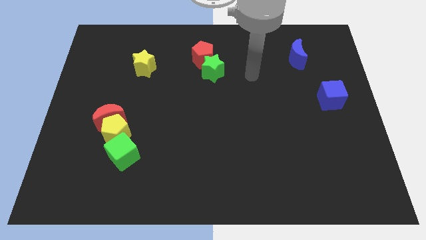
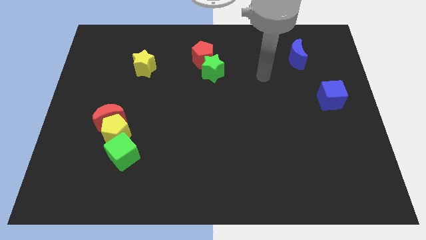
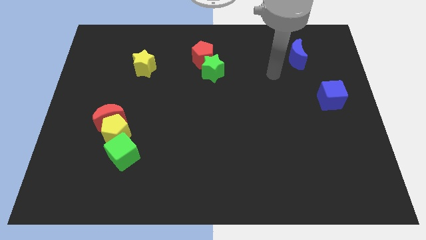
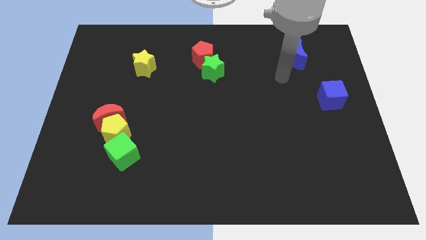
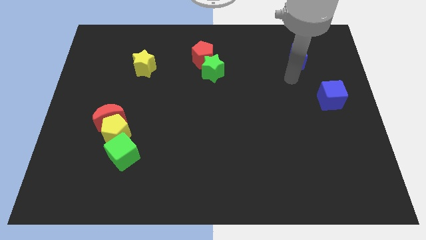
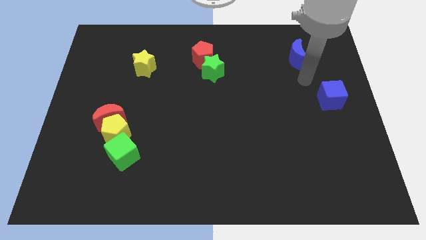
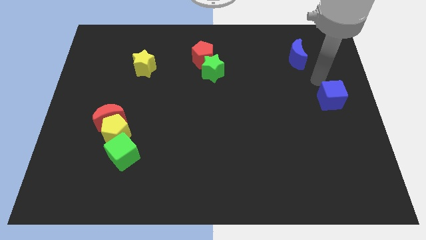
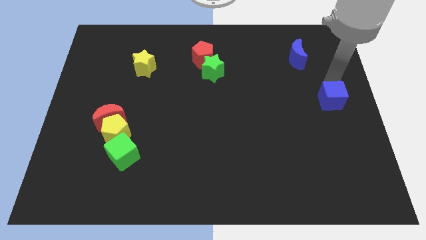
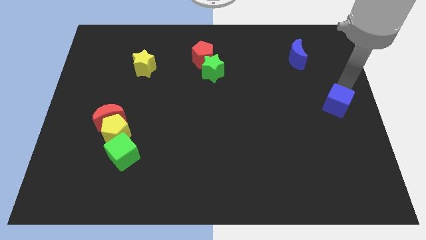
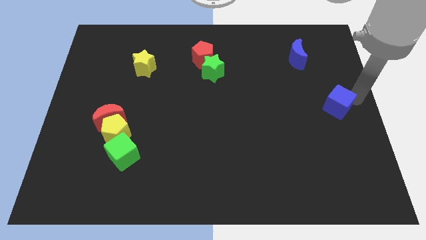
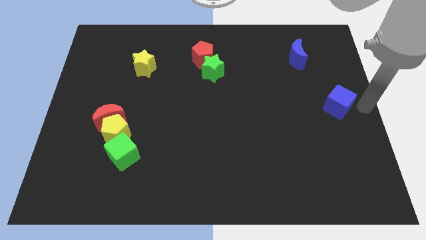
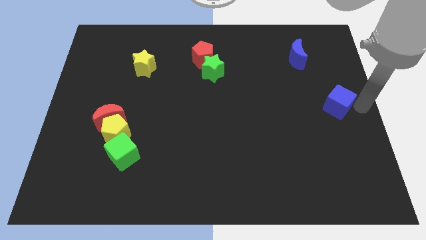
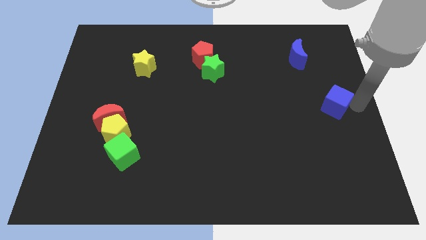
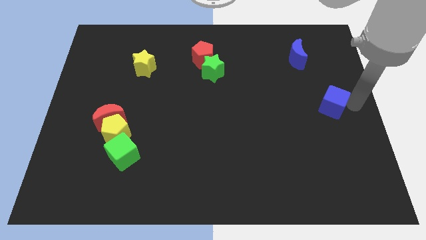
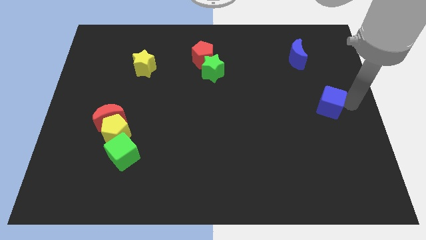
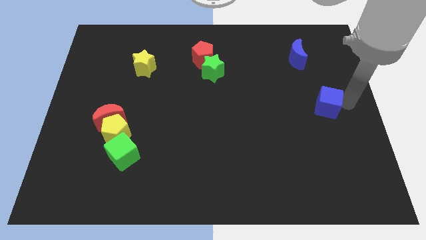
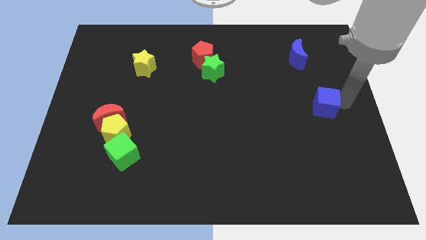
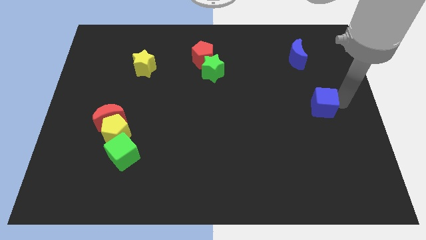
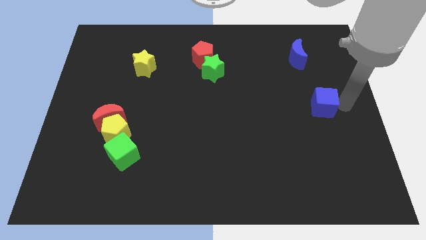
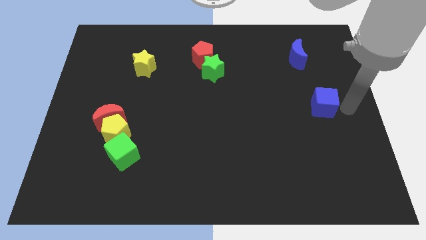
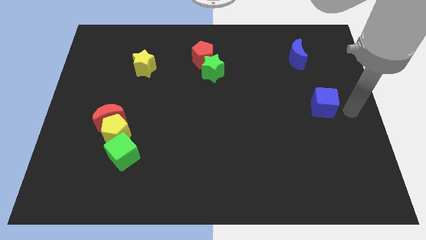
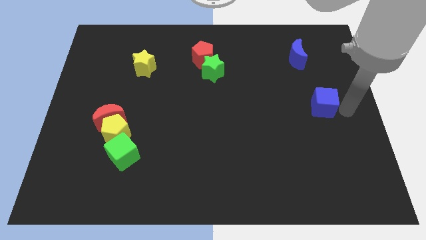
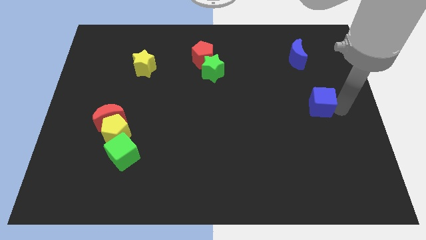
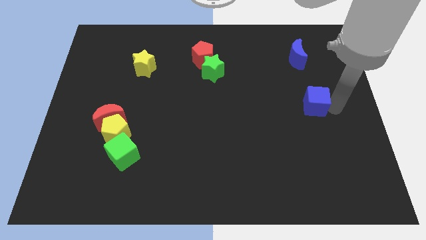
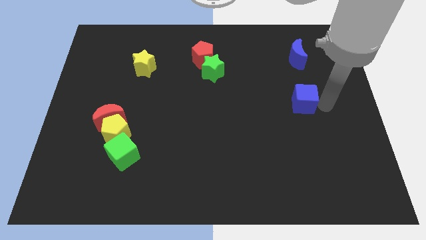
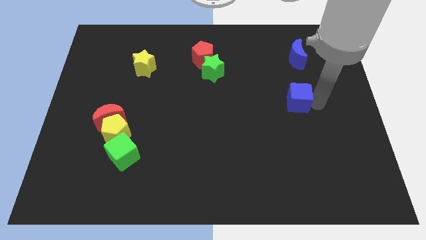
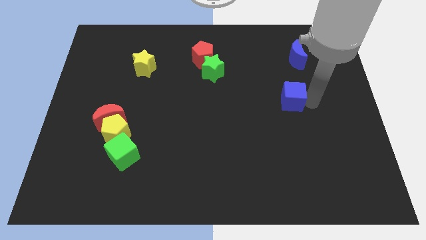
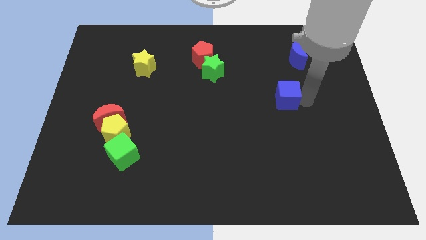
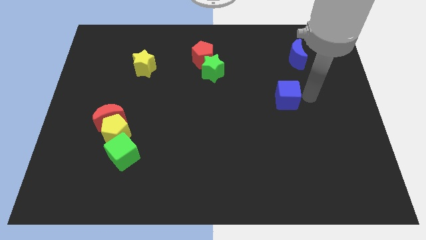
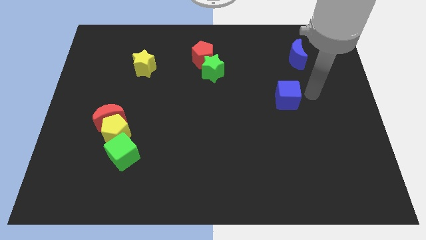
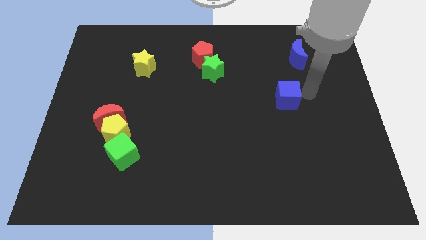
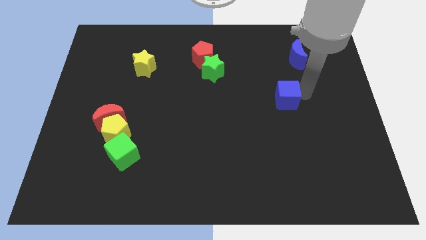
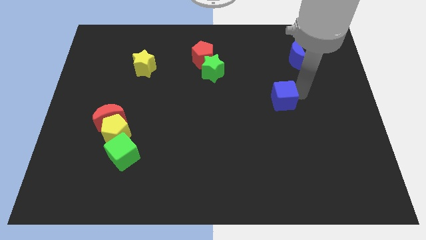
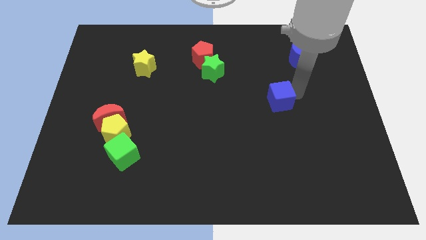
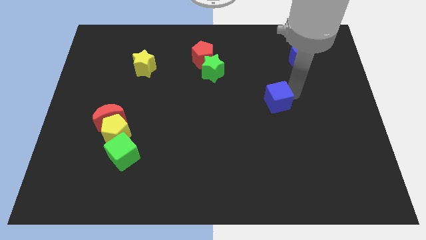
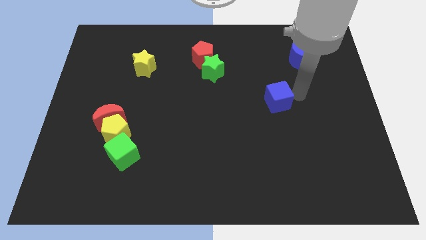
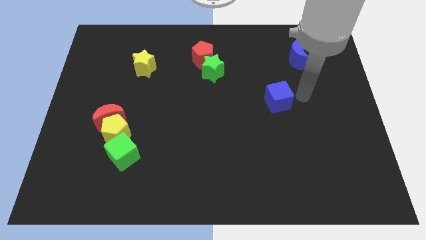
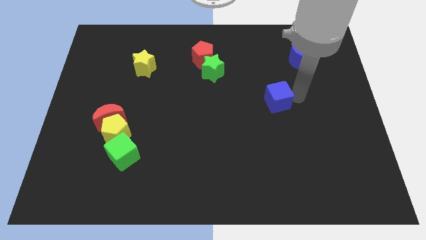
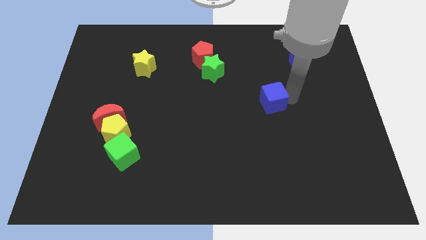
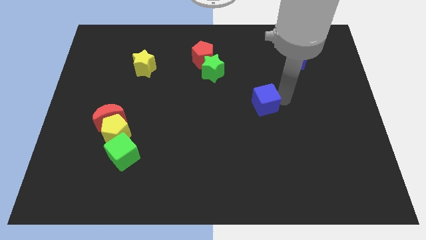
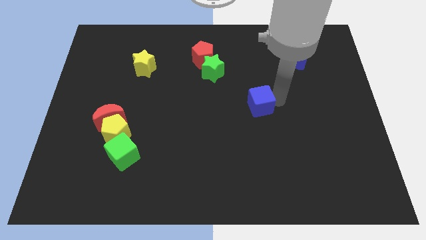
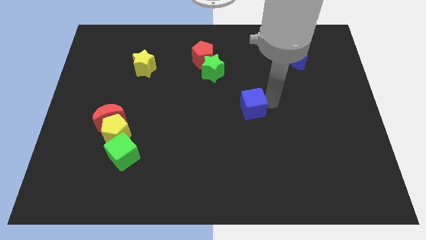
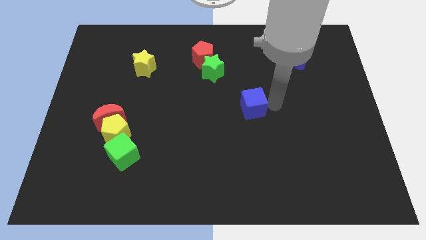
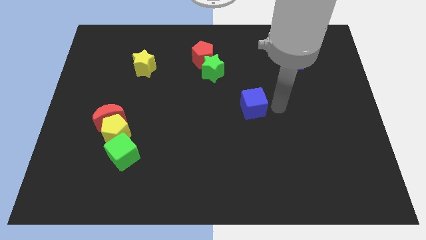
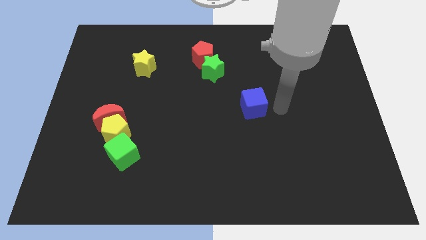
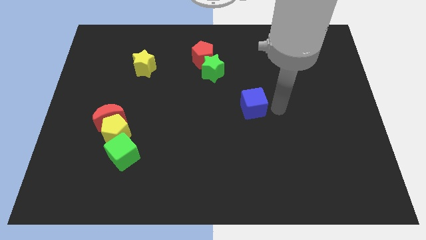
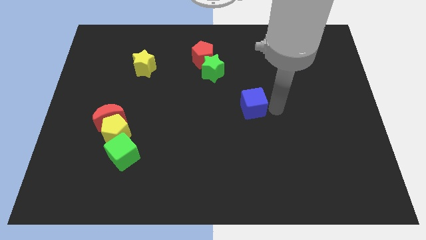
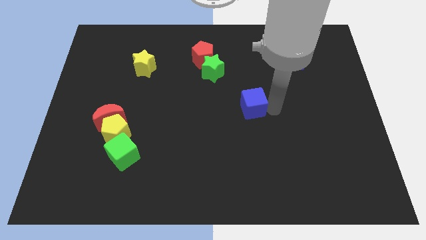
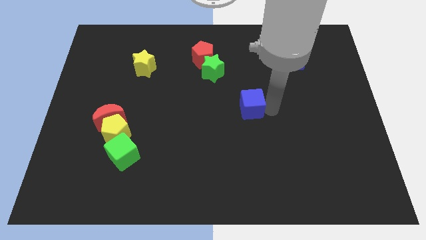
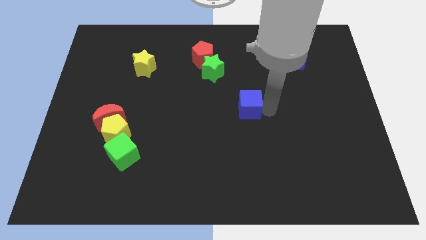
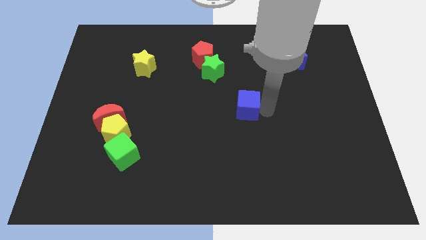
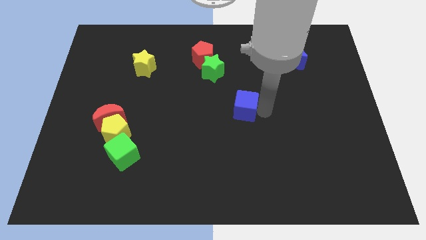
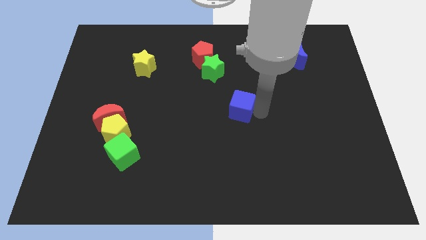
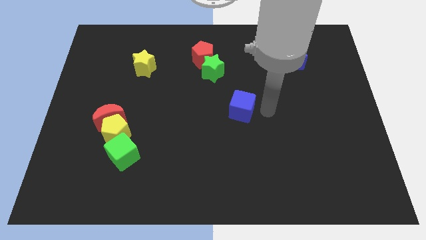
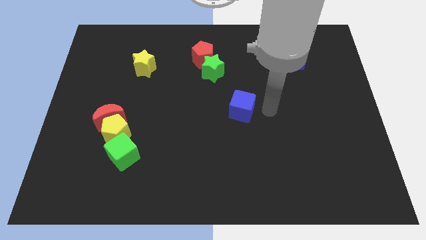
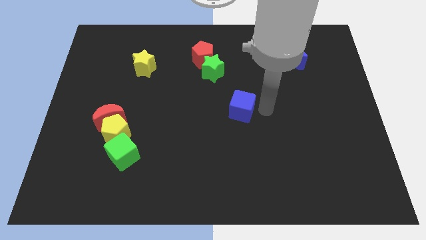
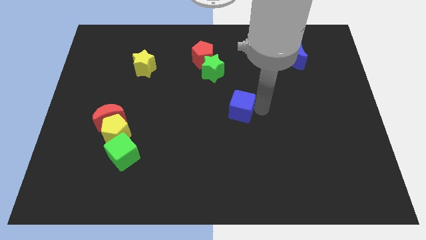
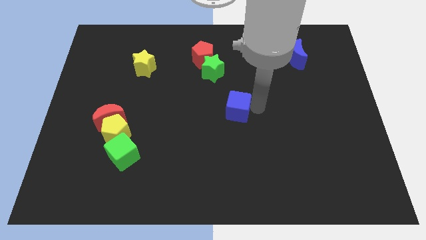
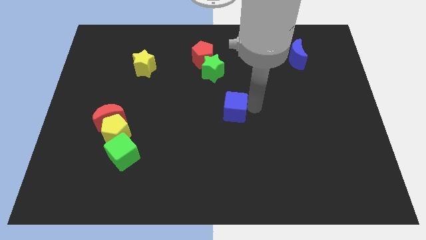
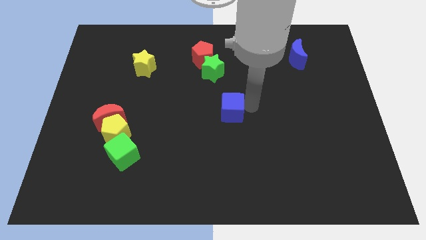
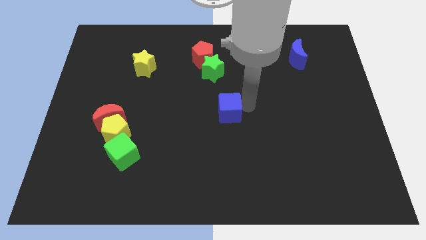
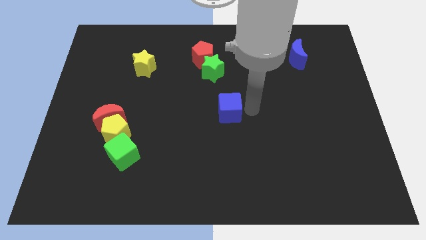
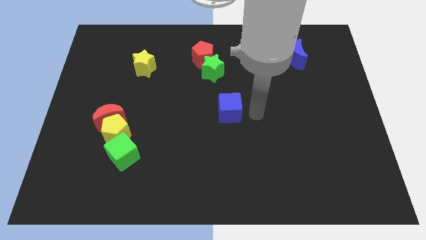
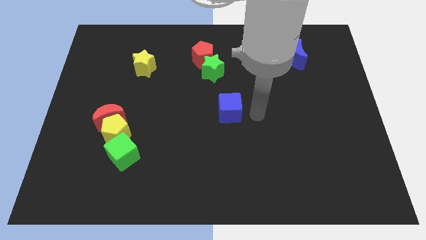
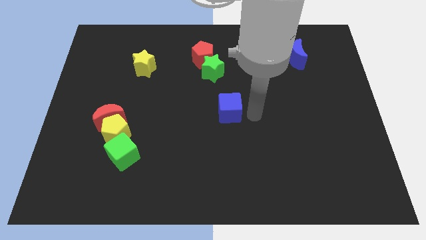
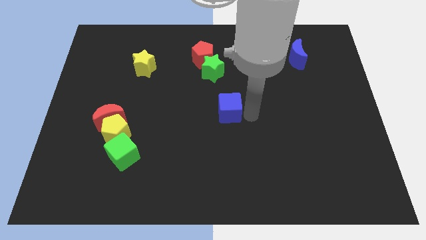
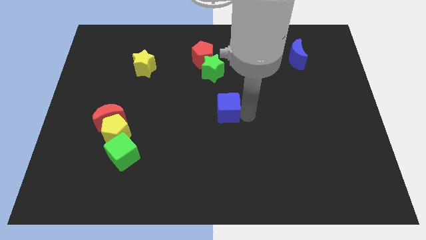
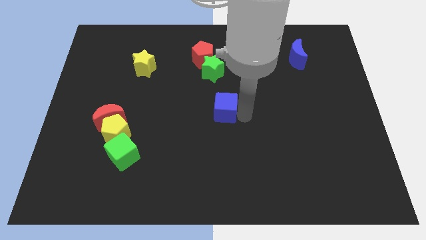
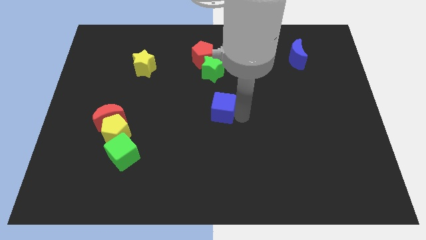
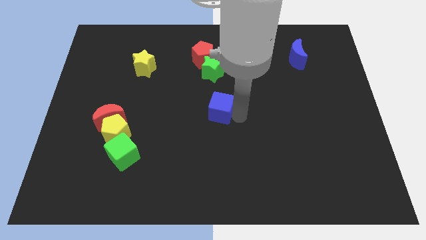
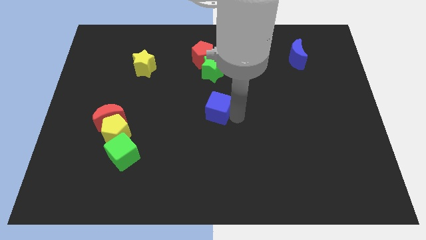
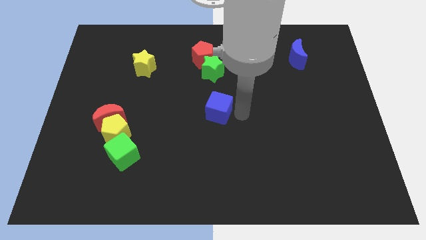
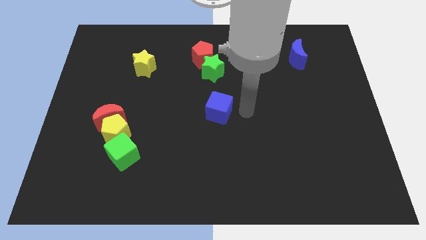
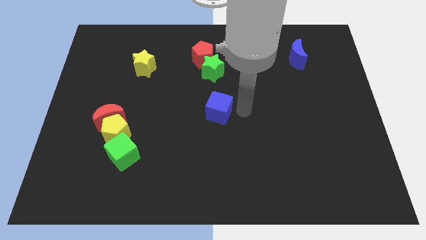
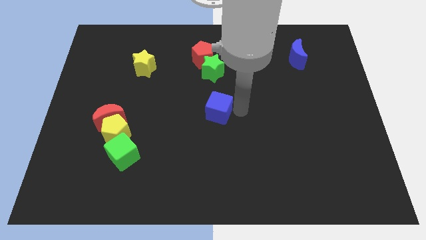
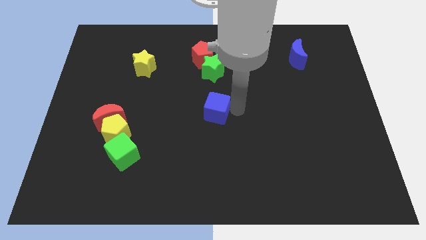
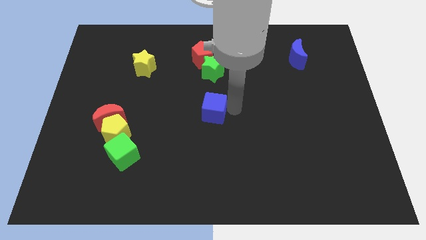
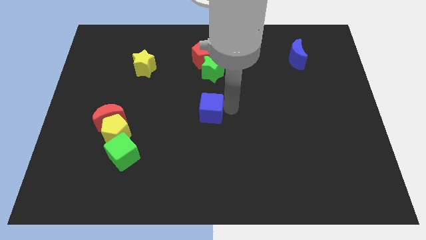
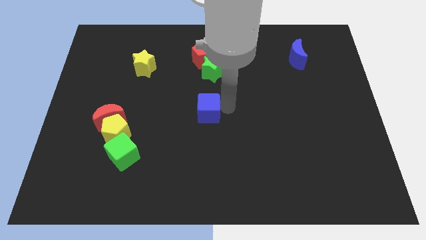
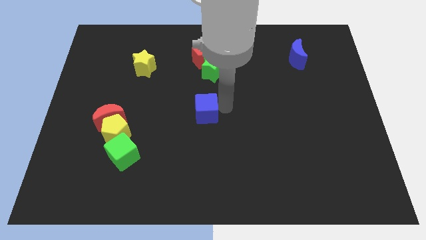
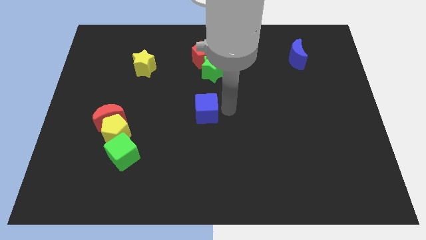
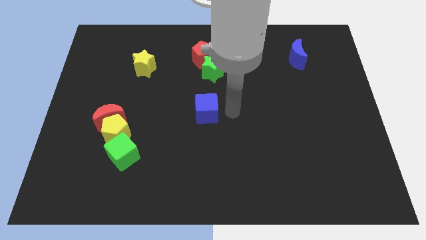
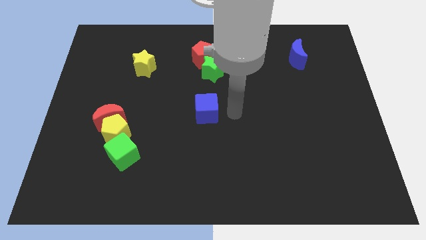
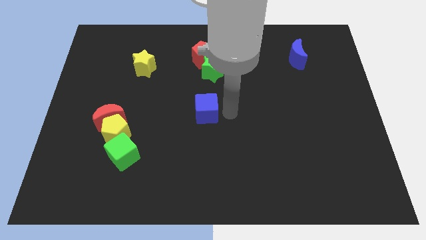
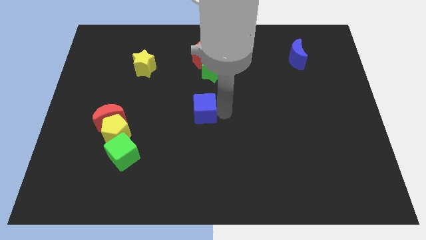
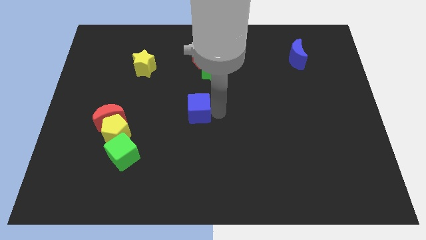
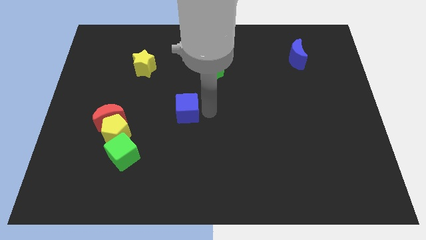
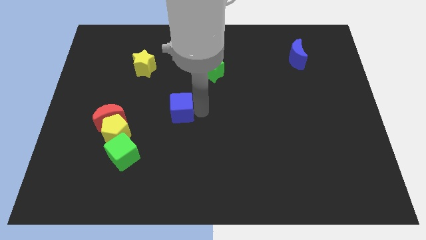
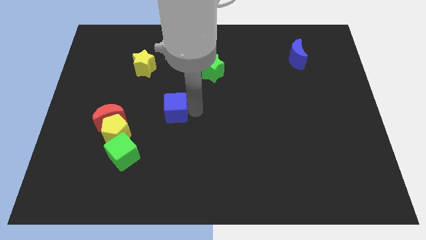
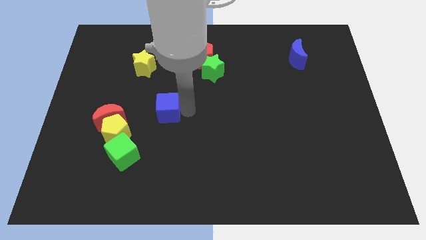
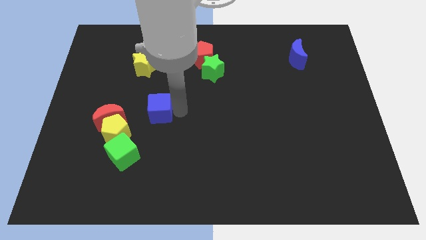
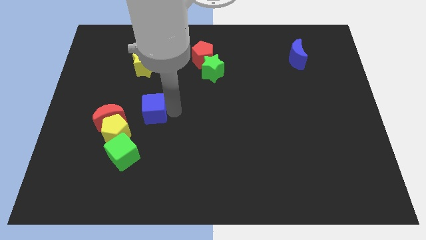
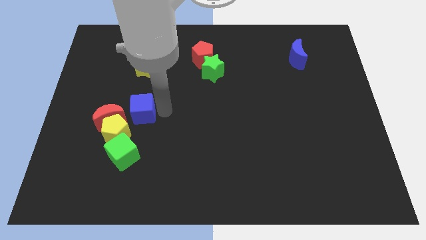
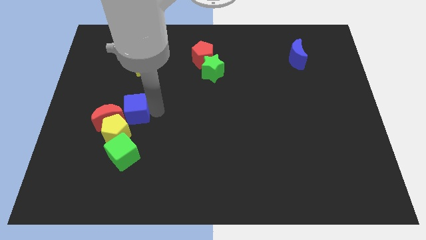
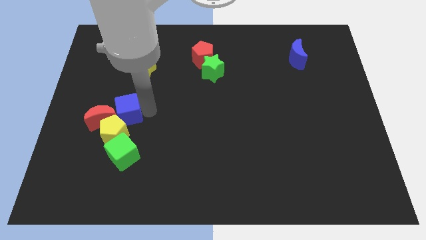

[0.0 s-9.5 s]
push the blue cube next to the red moon
